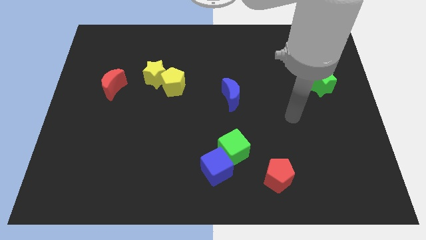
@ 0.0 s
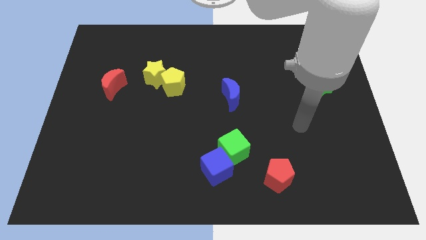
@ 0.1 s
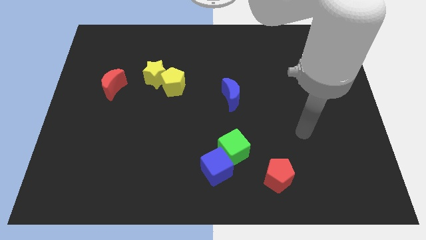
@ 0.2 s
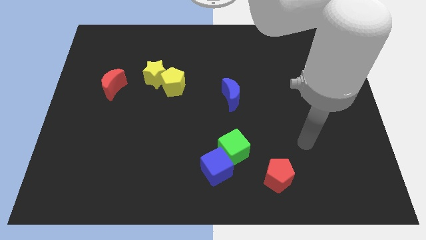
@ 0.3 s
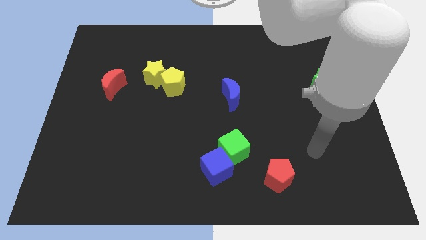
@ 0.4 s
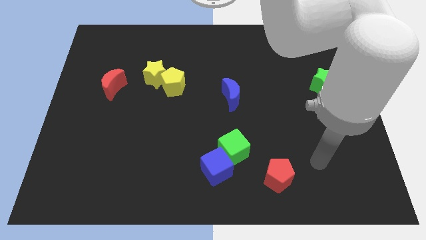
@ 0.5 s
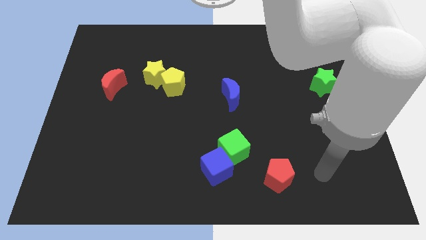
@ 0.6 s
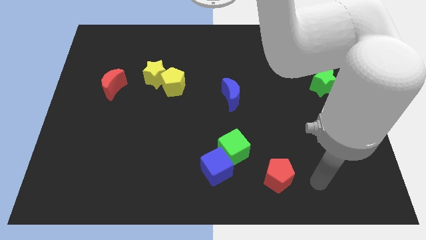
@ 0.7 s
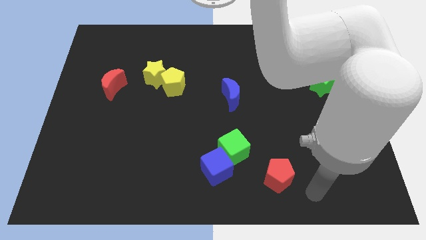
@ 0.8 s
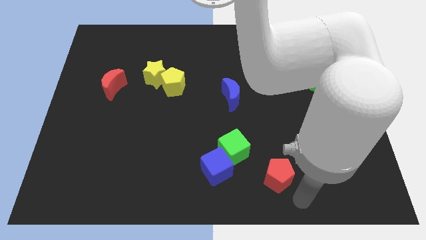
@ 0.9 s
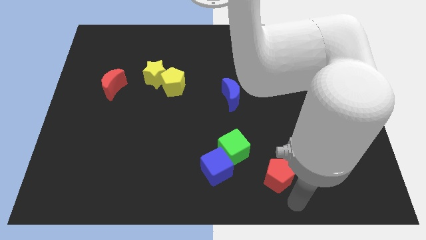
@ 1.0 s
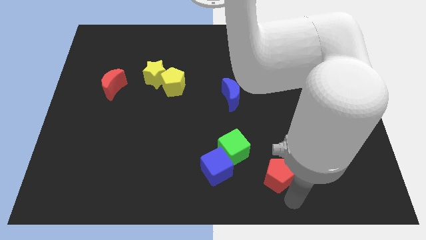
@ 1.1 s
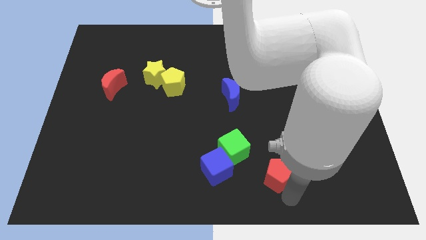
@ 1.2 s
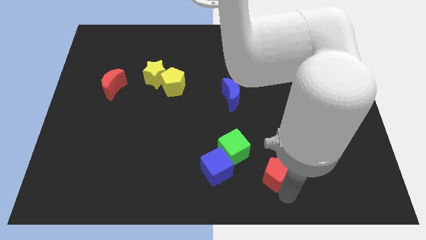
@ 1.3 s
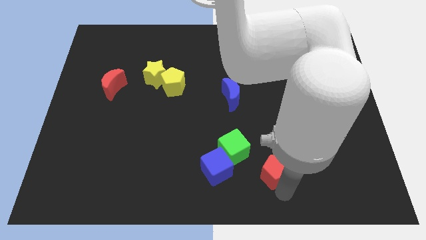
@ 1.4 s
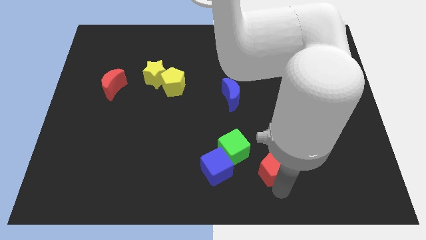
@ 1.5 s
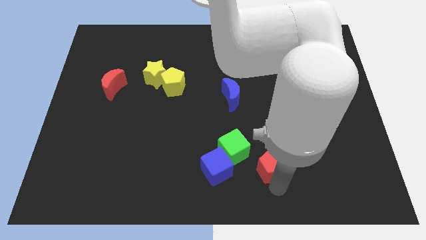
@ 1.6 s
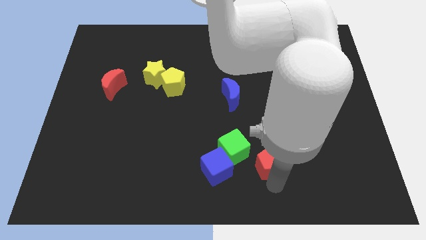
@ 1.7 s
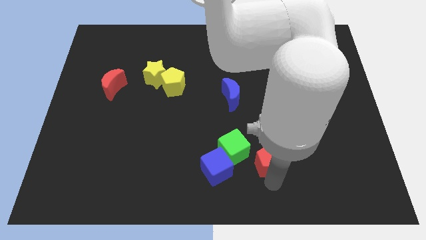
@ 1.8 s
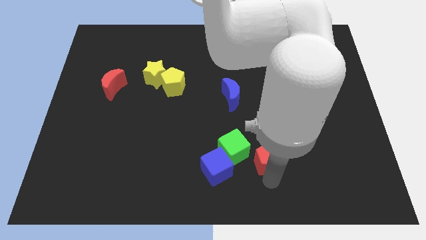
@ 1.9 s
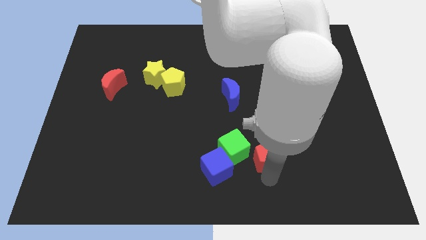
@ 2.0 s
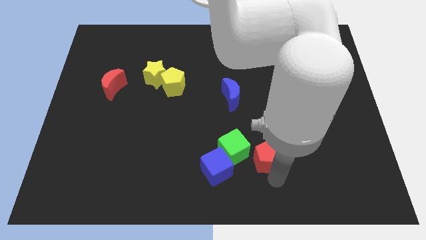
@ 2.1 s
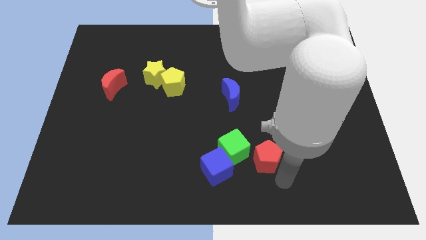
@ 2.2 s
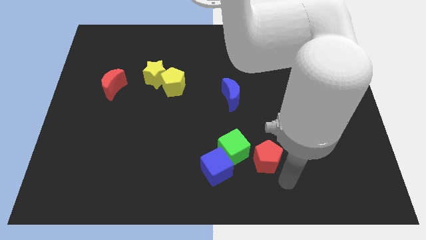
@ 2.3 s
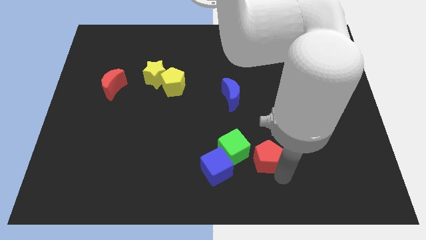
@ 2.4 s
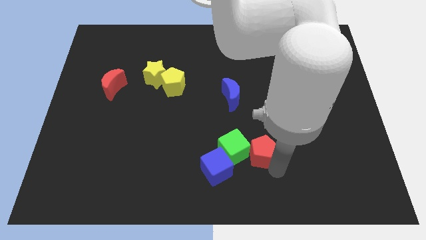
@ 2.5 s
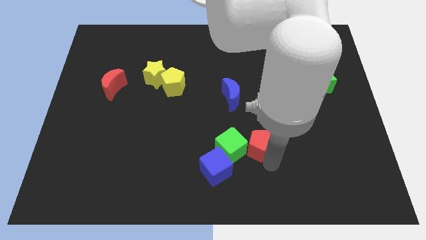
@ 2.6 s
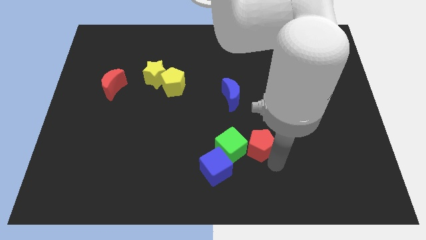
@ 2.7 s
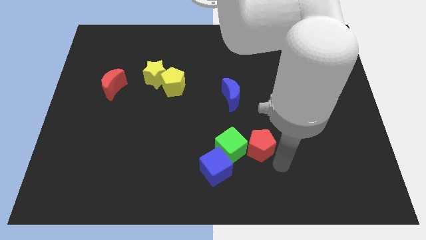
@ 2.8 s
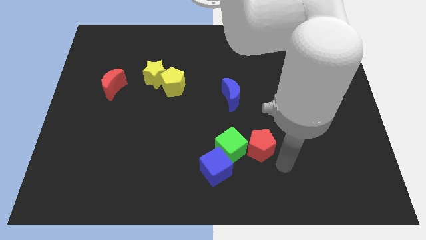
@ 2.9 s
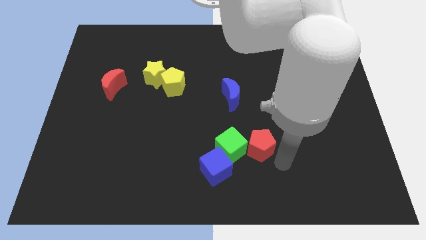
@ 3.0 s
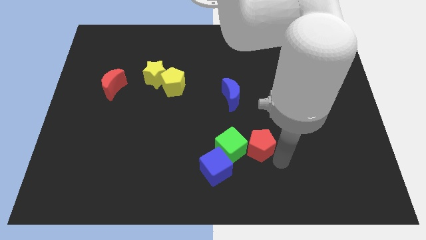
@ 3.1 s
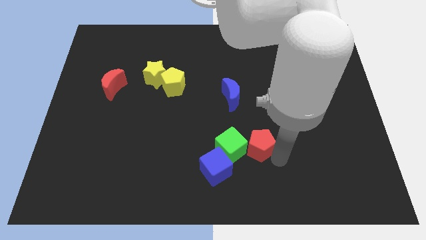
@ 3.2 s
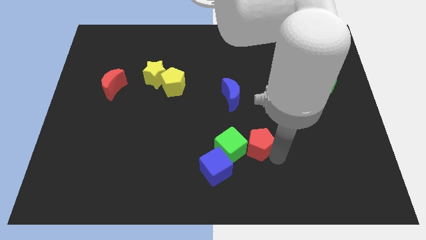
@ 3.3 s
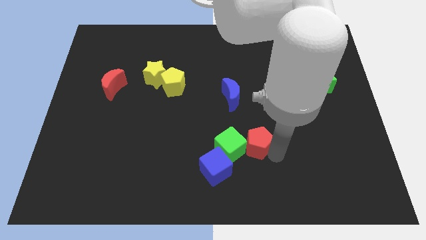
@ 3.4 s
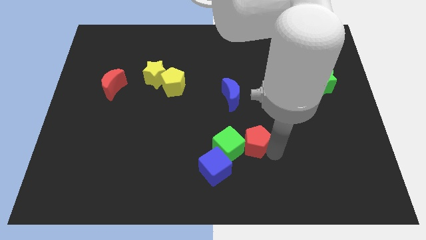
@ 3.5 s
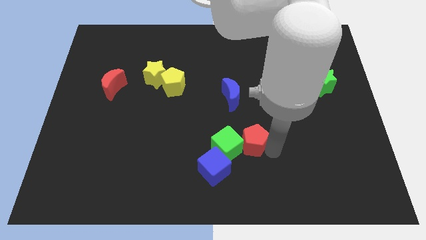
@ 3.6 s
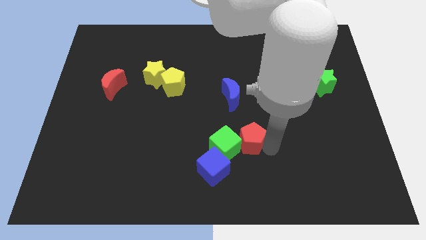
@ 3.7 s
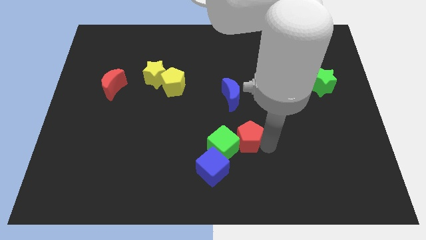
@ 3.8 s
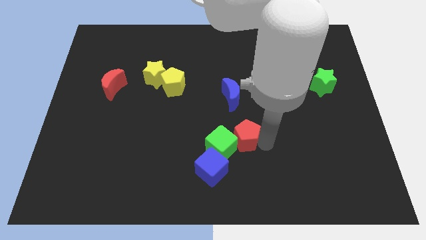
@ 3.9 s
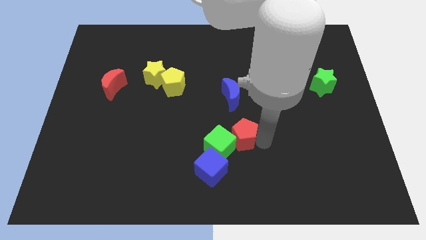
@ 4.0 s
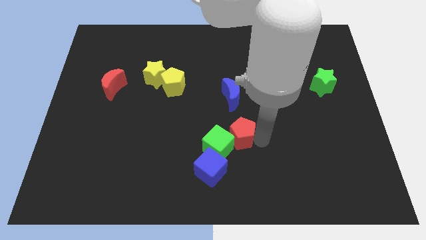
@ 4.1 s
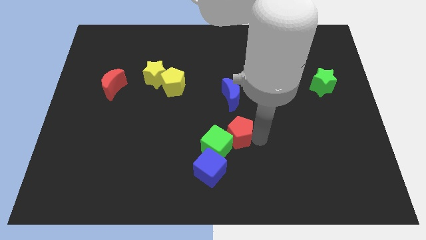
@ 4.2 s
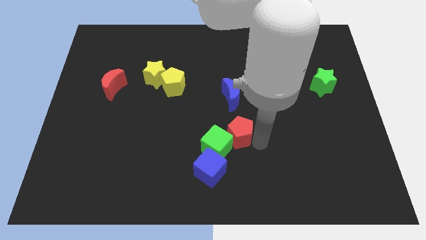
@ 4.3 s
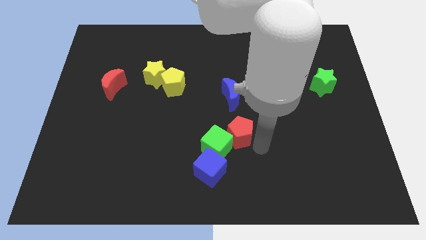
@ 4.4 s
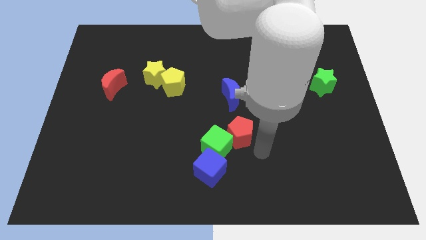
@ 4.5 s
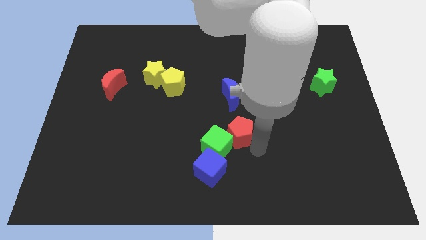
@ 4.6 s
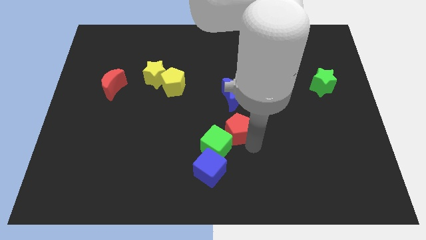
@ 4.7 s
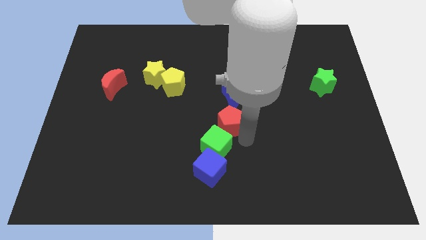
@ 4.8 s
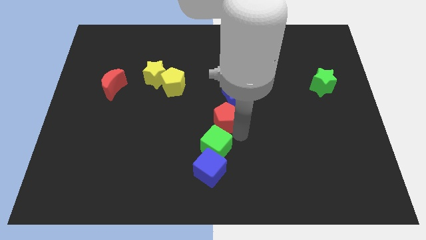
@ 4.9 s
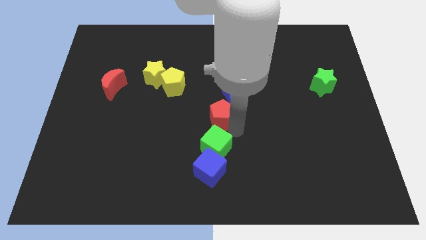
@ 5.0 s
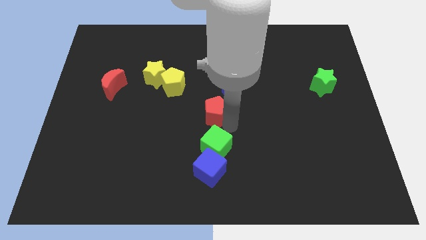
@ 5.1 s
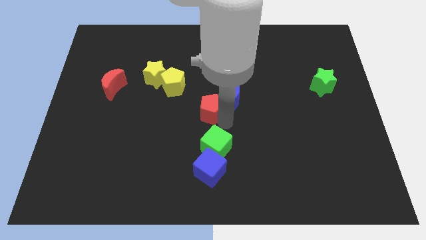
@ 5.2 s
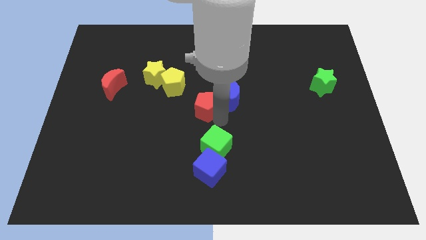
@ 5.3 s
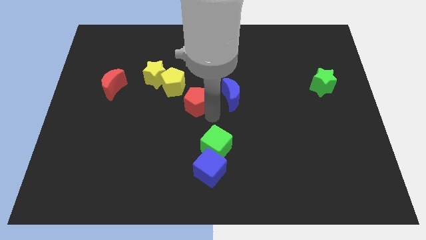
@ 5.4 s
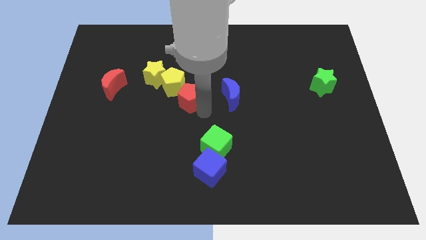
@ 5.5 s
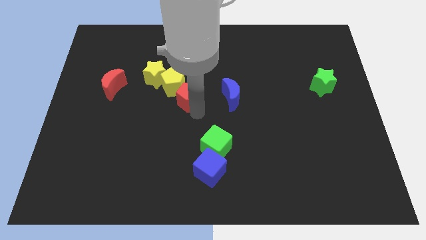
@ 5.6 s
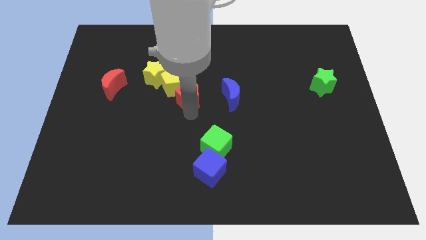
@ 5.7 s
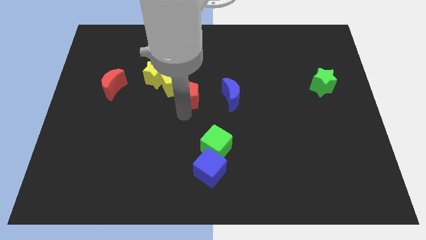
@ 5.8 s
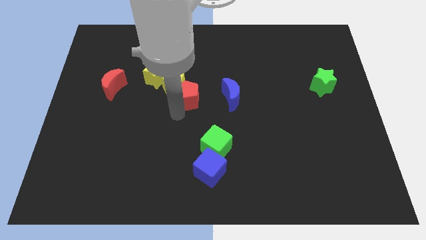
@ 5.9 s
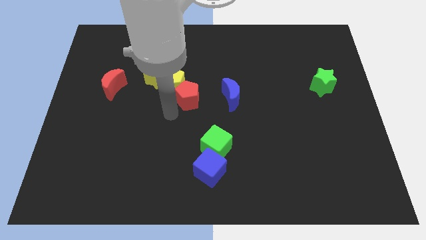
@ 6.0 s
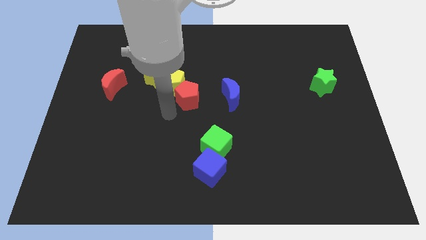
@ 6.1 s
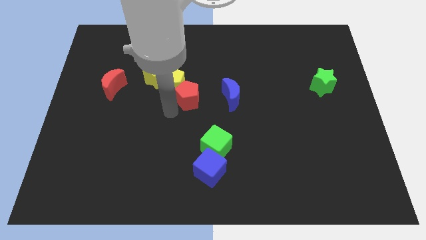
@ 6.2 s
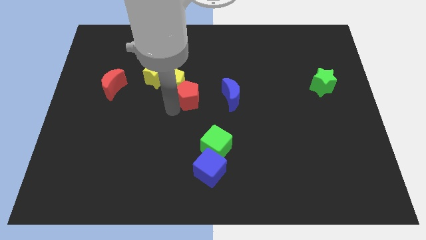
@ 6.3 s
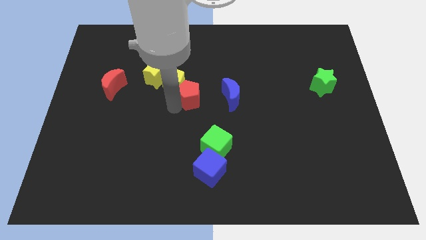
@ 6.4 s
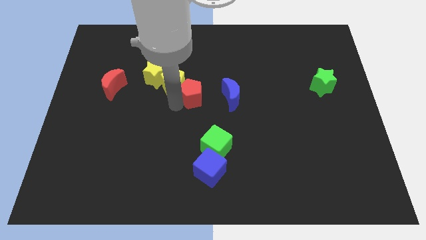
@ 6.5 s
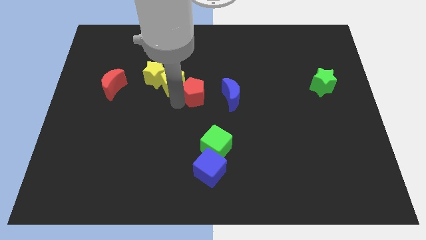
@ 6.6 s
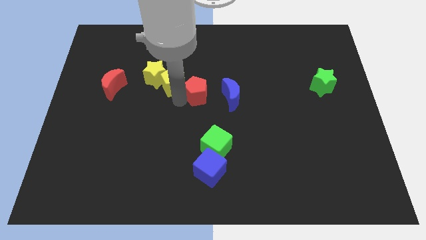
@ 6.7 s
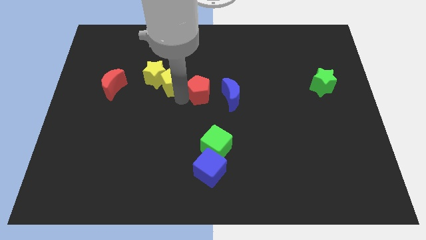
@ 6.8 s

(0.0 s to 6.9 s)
put the red pentagon to the top left side of the blue moon
